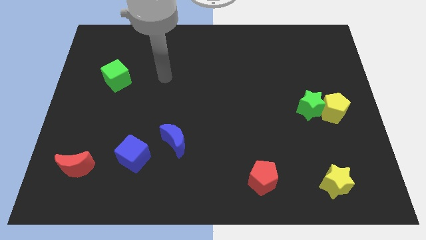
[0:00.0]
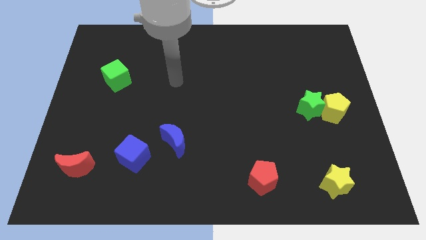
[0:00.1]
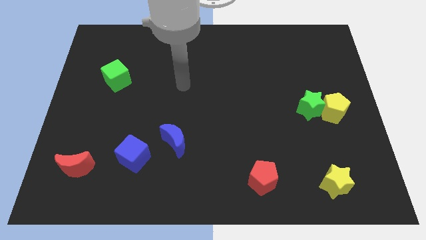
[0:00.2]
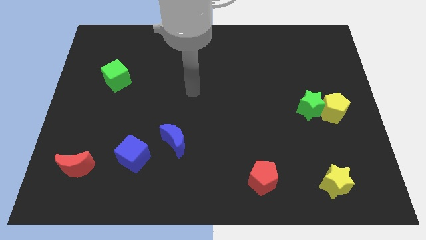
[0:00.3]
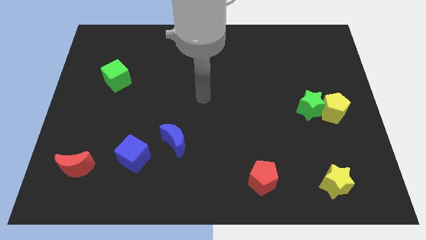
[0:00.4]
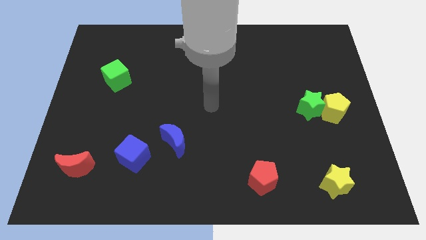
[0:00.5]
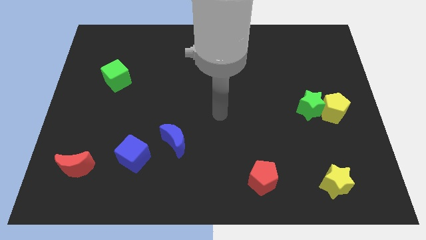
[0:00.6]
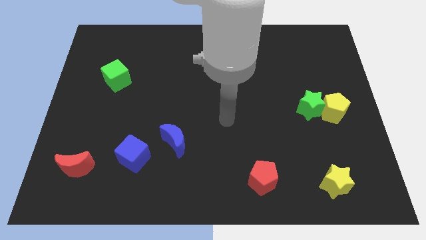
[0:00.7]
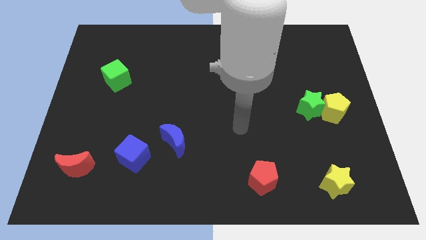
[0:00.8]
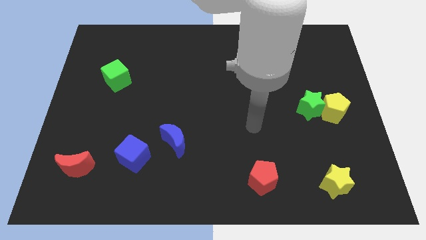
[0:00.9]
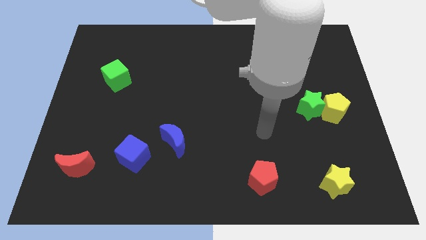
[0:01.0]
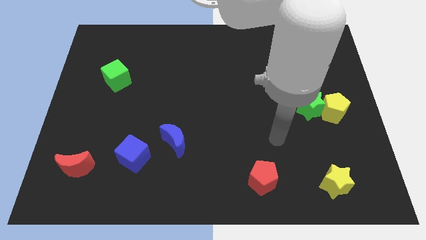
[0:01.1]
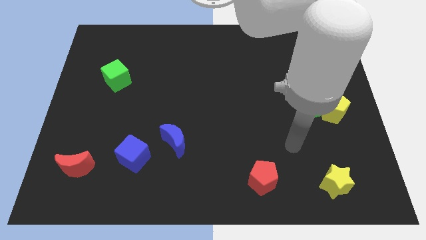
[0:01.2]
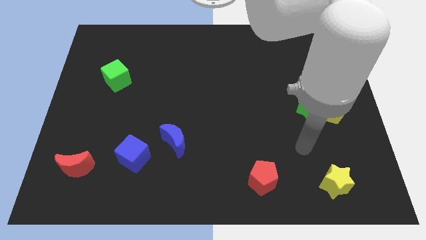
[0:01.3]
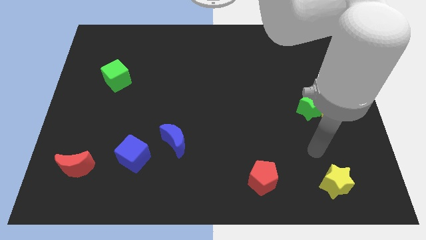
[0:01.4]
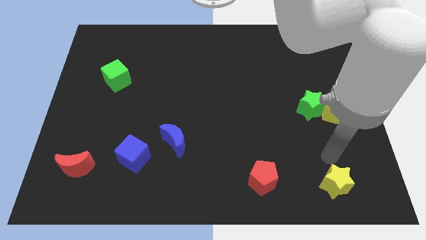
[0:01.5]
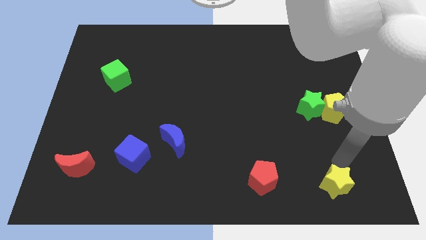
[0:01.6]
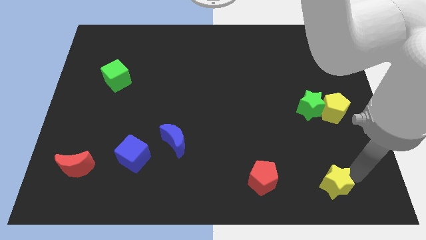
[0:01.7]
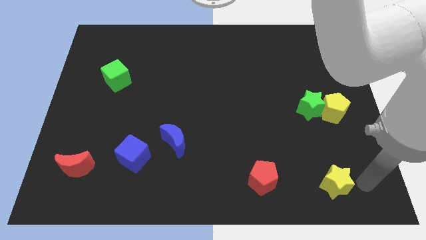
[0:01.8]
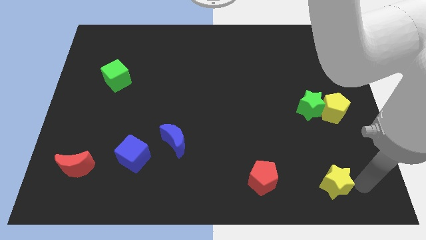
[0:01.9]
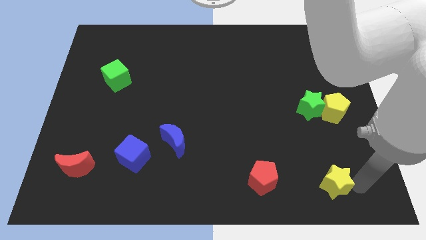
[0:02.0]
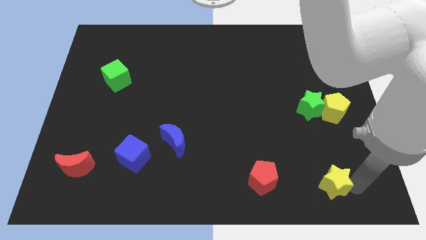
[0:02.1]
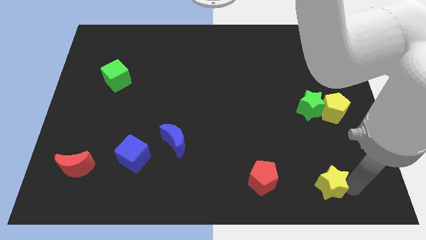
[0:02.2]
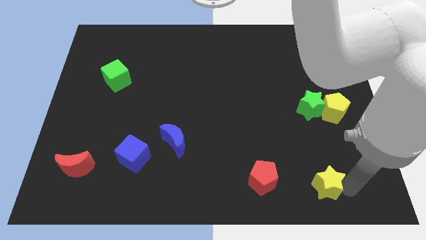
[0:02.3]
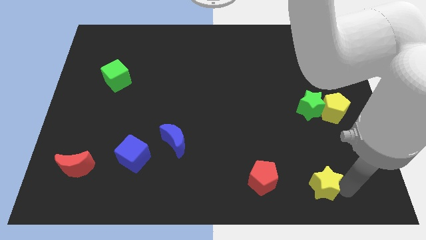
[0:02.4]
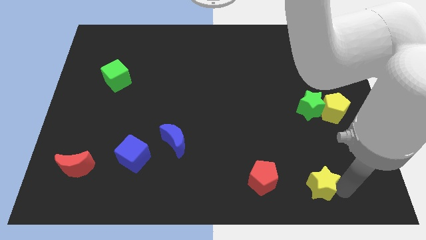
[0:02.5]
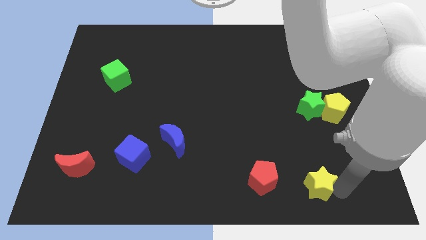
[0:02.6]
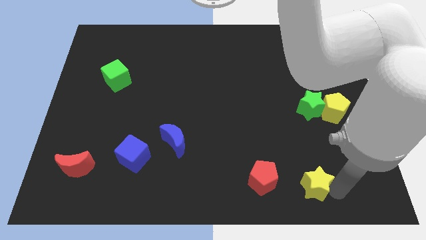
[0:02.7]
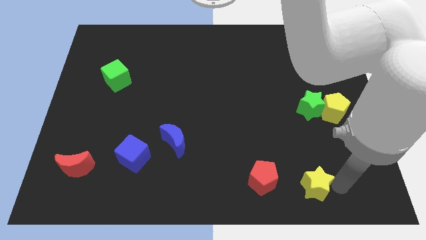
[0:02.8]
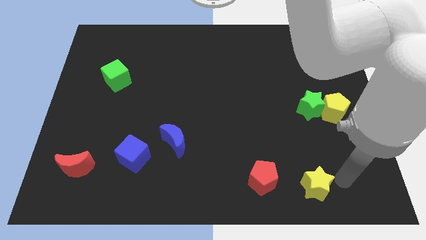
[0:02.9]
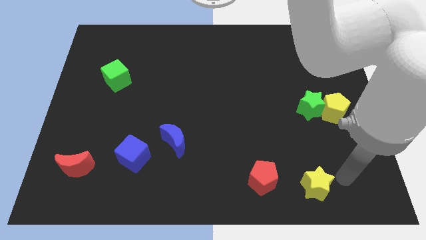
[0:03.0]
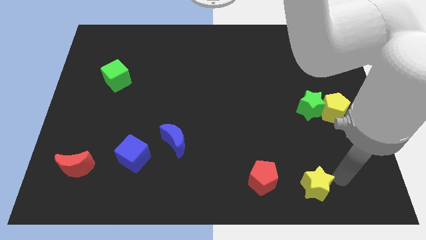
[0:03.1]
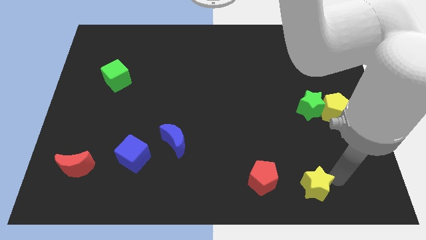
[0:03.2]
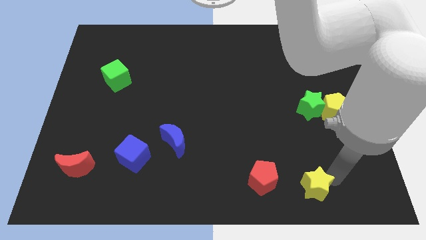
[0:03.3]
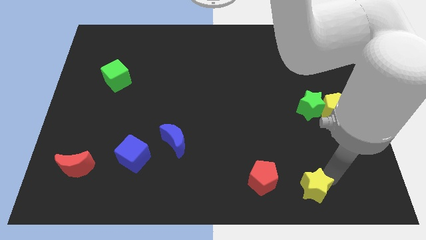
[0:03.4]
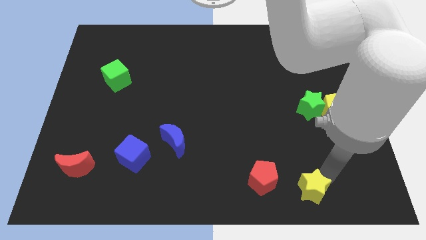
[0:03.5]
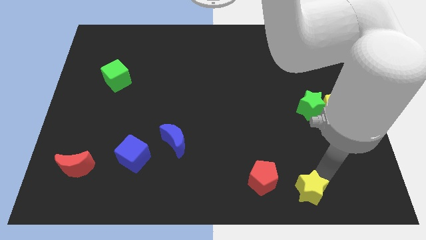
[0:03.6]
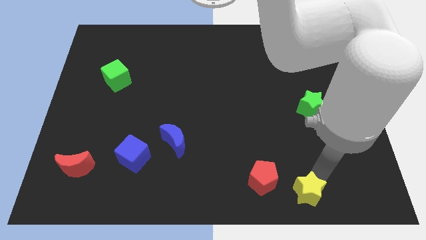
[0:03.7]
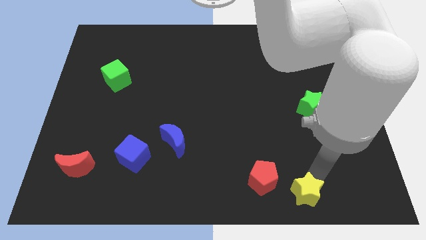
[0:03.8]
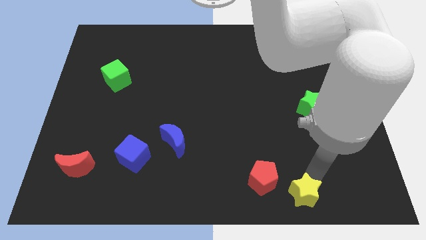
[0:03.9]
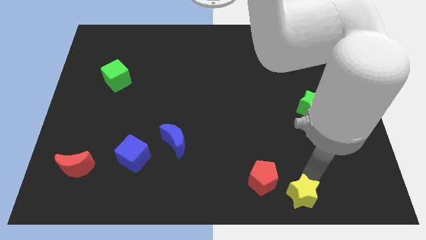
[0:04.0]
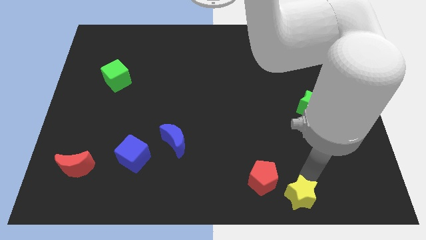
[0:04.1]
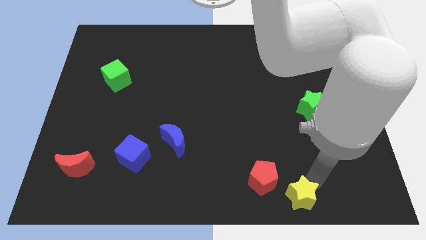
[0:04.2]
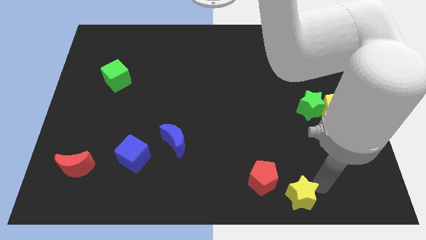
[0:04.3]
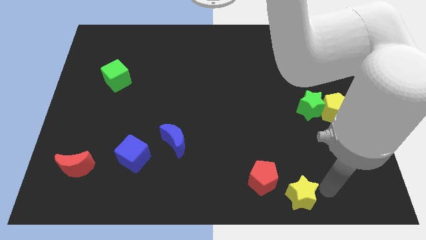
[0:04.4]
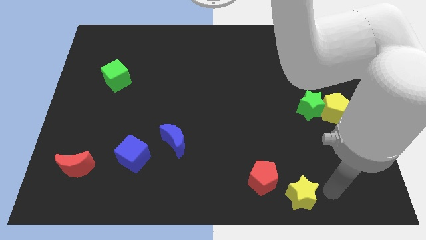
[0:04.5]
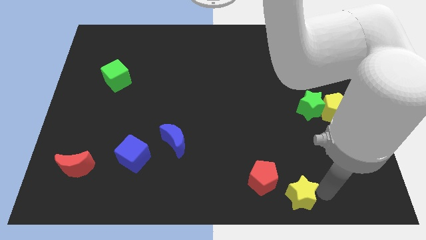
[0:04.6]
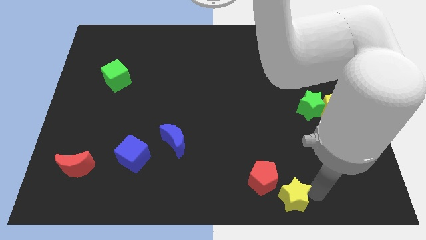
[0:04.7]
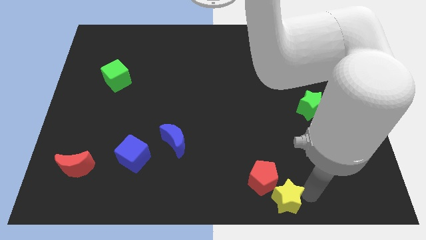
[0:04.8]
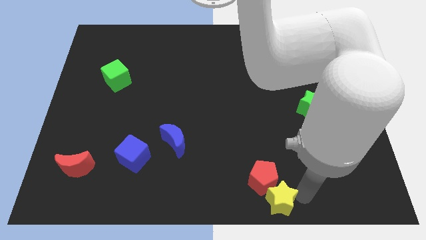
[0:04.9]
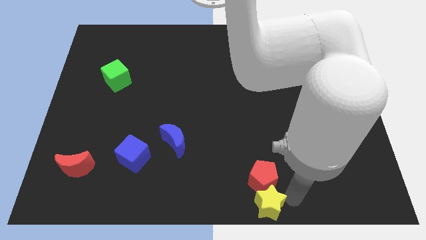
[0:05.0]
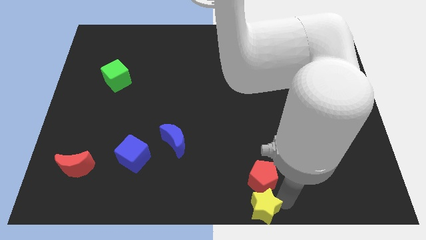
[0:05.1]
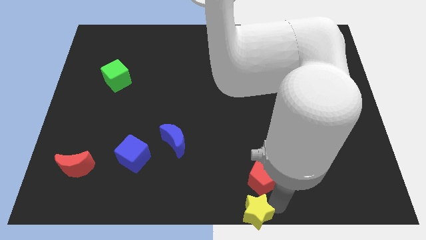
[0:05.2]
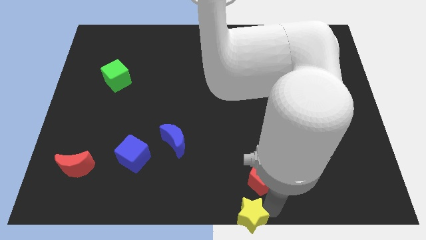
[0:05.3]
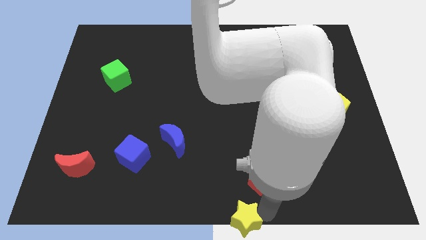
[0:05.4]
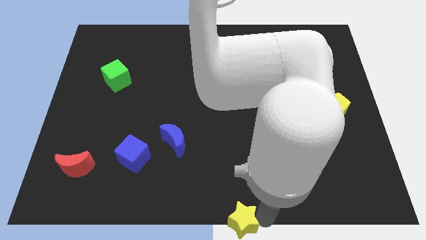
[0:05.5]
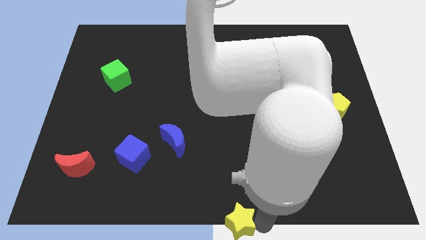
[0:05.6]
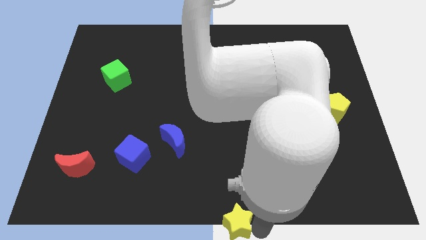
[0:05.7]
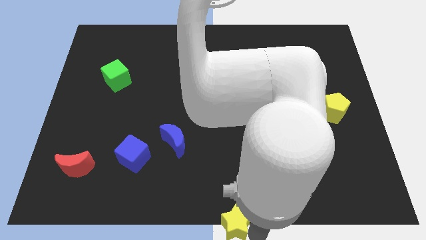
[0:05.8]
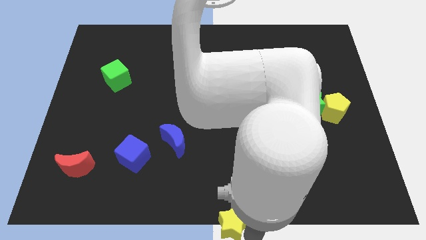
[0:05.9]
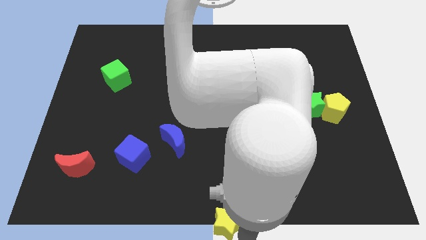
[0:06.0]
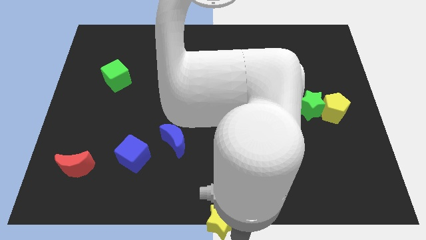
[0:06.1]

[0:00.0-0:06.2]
push the yellow star left

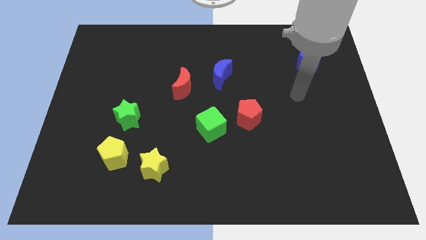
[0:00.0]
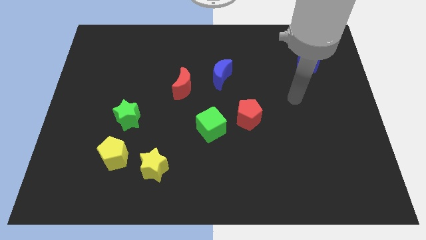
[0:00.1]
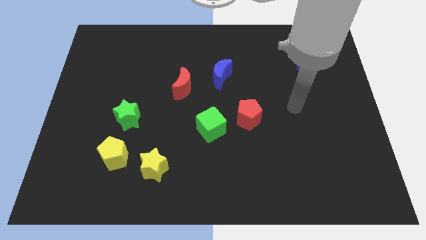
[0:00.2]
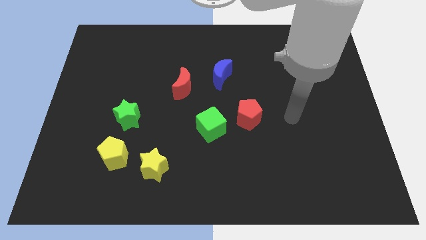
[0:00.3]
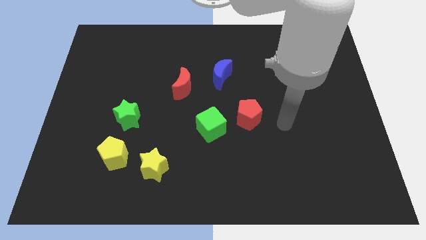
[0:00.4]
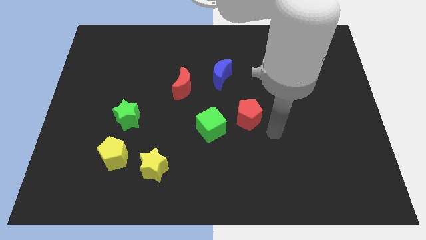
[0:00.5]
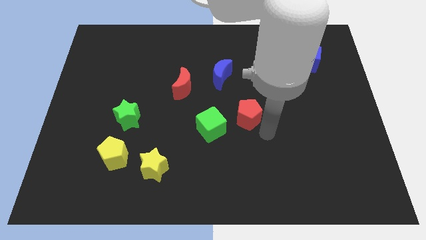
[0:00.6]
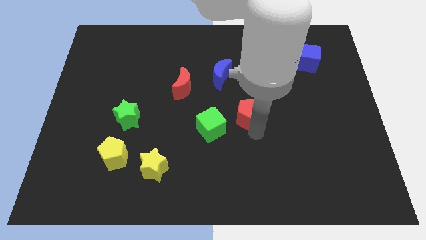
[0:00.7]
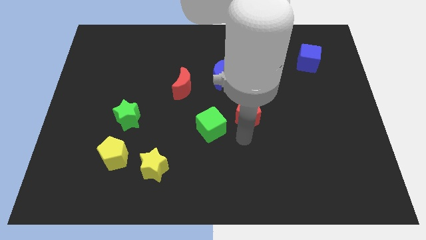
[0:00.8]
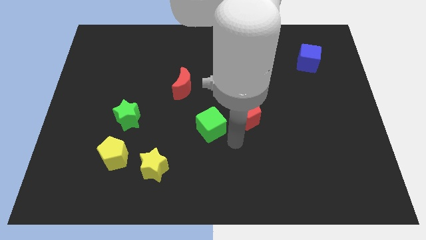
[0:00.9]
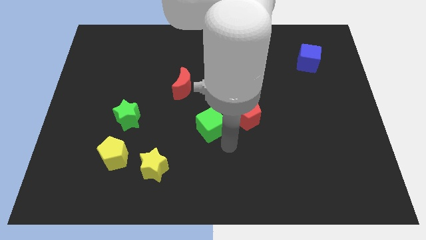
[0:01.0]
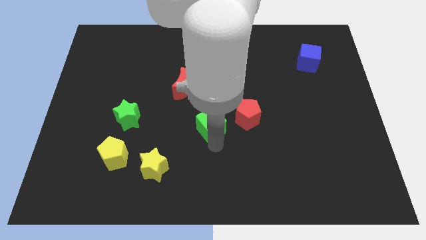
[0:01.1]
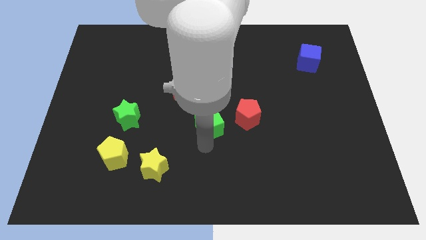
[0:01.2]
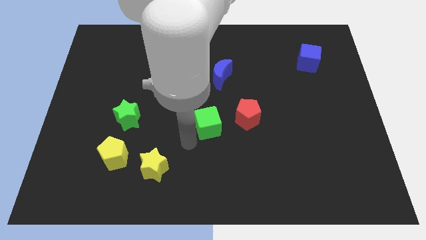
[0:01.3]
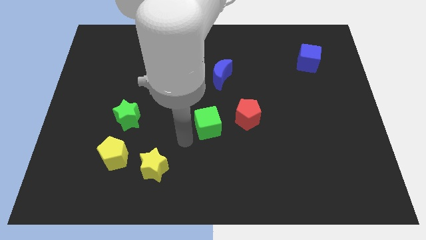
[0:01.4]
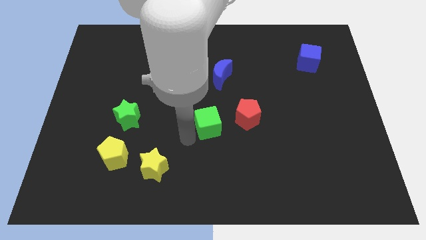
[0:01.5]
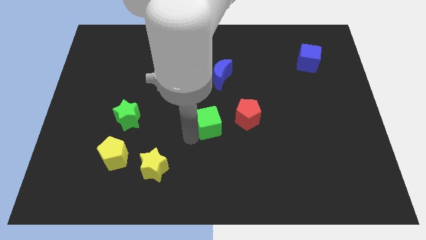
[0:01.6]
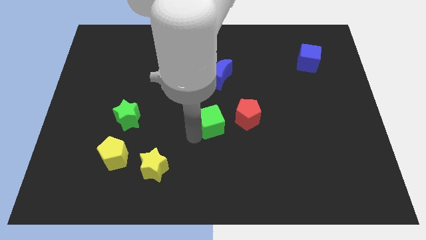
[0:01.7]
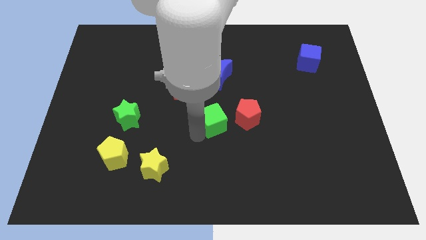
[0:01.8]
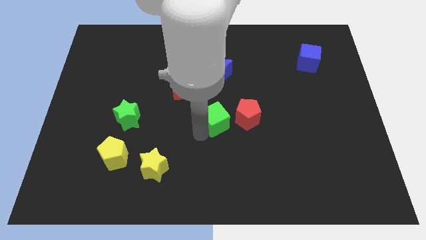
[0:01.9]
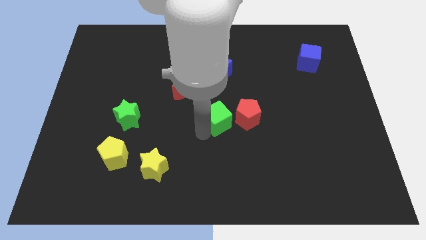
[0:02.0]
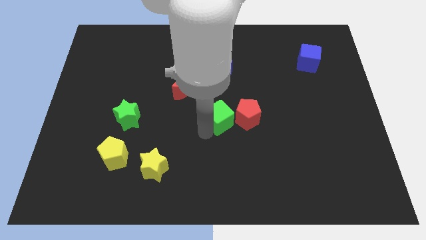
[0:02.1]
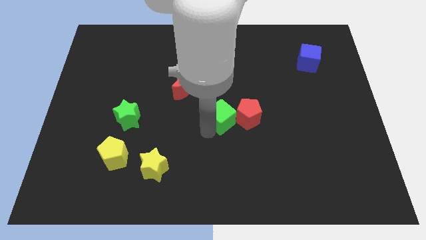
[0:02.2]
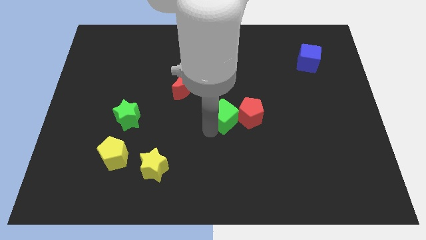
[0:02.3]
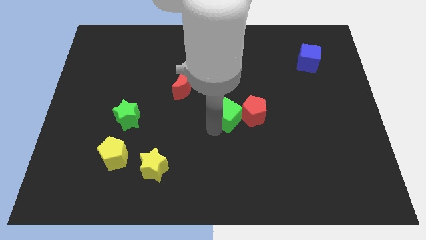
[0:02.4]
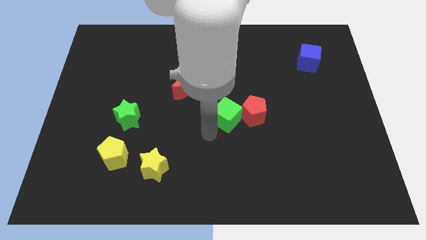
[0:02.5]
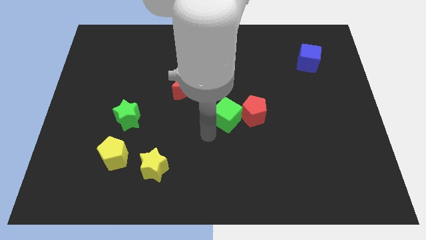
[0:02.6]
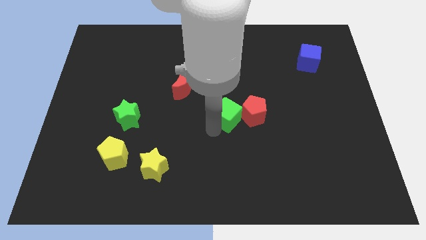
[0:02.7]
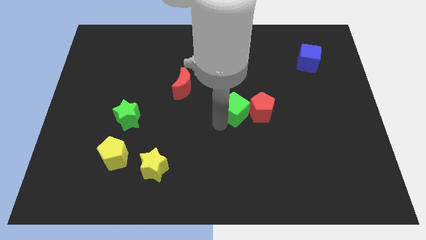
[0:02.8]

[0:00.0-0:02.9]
slightly push the green cube up and to the right diagonally
